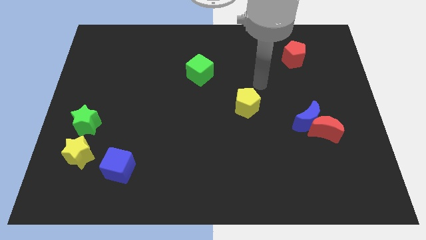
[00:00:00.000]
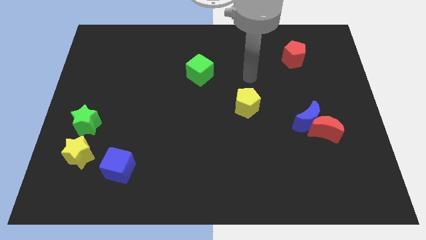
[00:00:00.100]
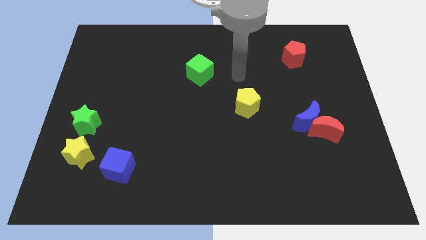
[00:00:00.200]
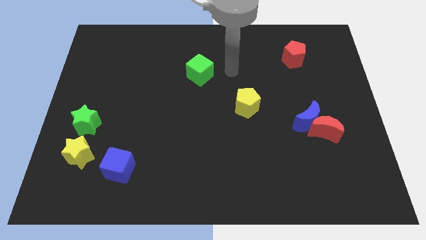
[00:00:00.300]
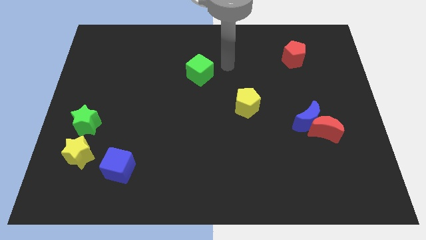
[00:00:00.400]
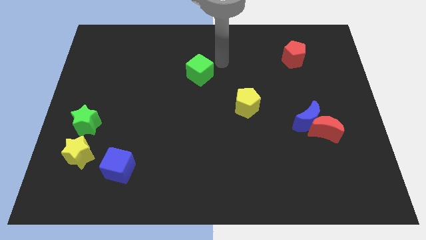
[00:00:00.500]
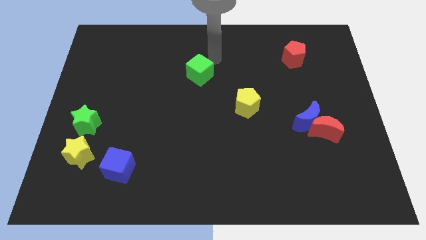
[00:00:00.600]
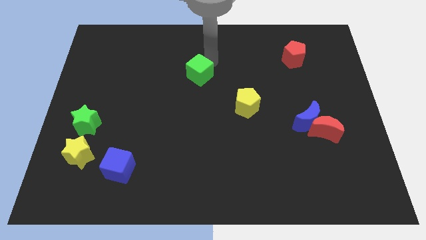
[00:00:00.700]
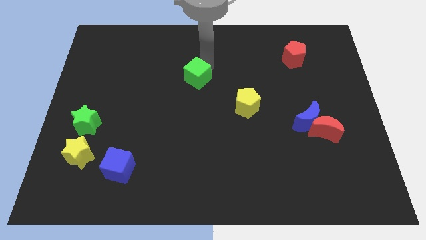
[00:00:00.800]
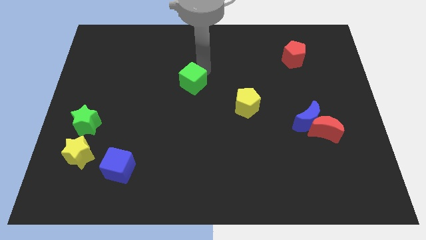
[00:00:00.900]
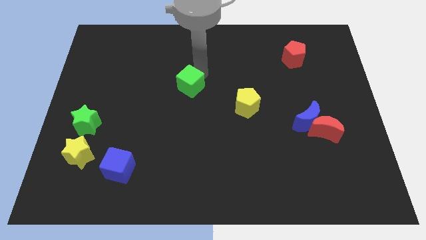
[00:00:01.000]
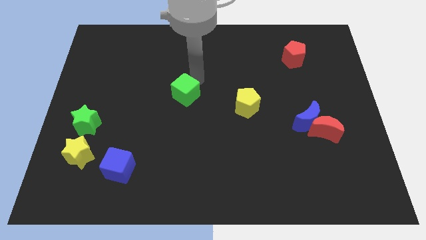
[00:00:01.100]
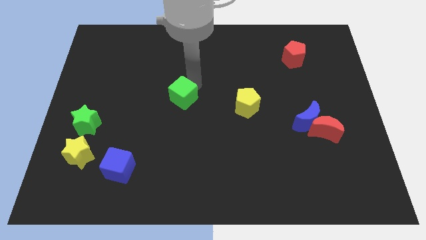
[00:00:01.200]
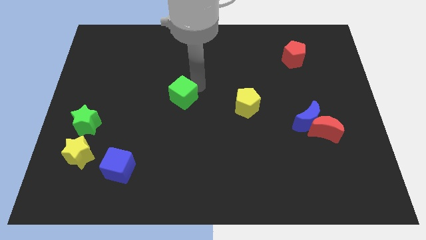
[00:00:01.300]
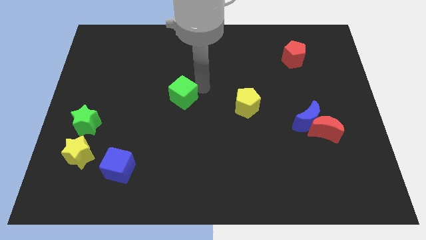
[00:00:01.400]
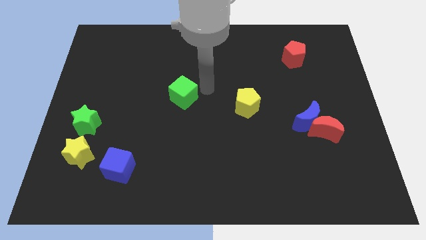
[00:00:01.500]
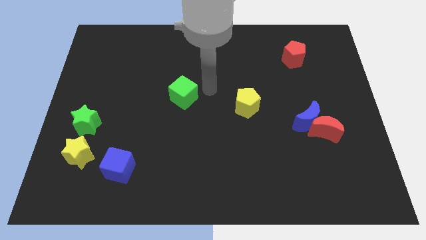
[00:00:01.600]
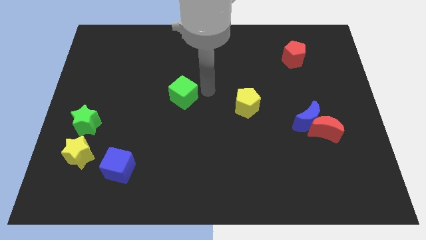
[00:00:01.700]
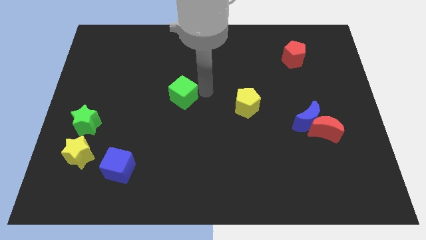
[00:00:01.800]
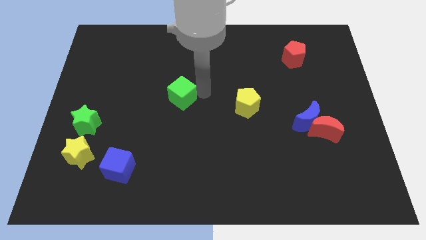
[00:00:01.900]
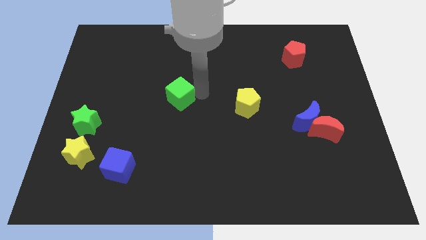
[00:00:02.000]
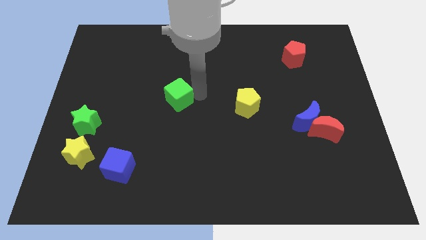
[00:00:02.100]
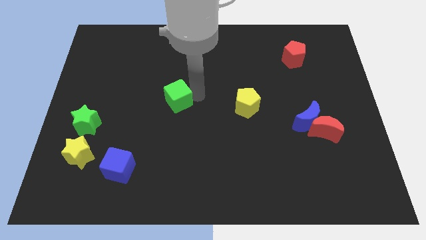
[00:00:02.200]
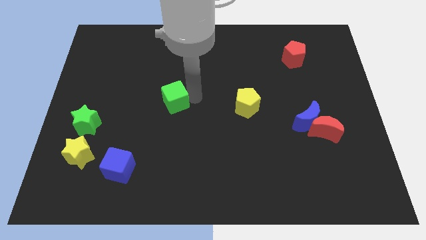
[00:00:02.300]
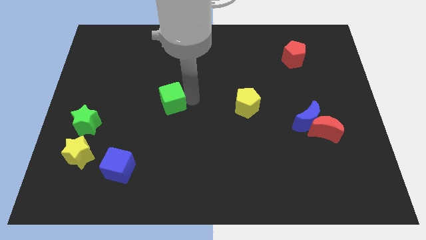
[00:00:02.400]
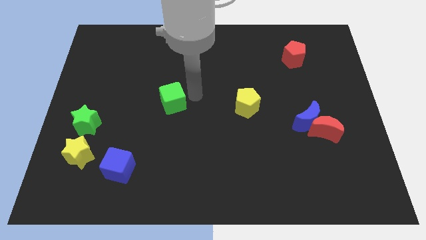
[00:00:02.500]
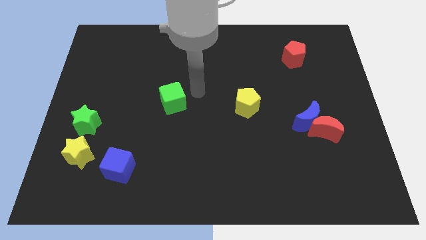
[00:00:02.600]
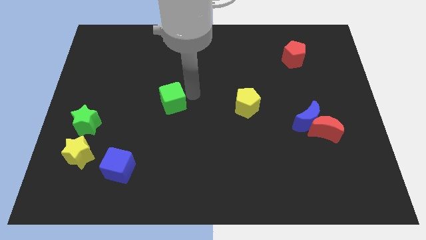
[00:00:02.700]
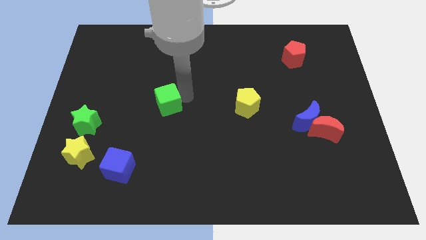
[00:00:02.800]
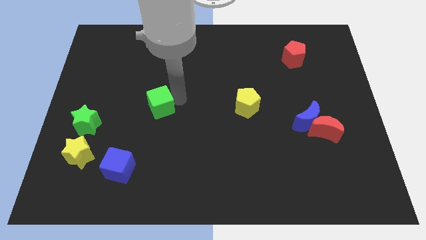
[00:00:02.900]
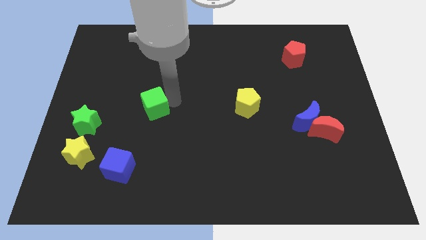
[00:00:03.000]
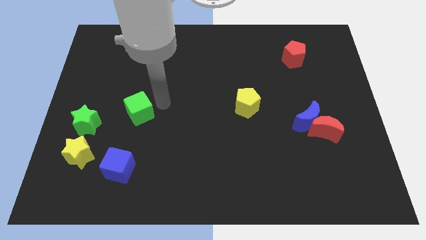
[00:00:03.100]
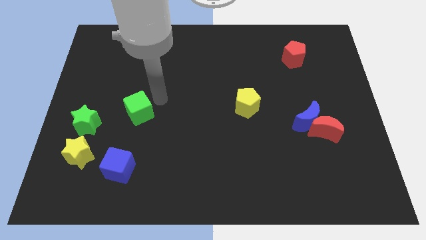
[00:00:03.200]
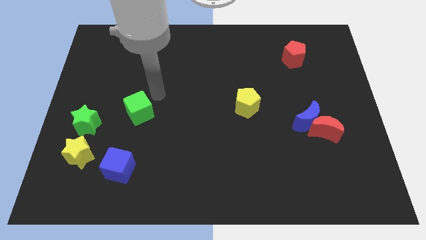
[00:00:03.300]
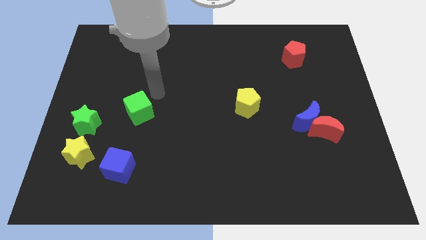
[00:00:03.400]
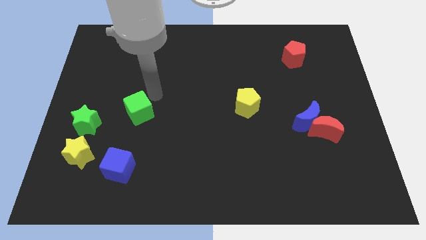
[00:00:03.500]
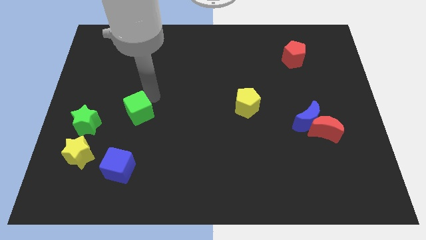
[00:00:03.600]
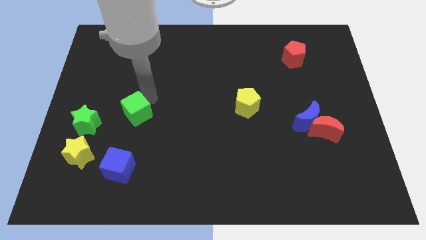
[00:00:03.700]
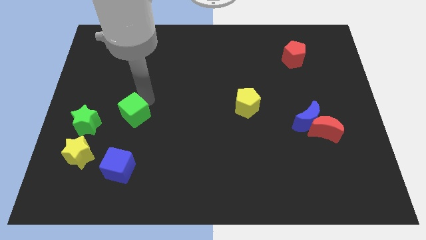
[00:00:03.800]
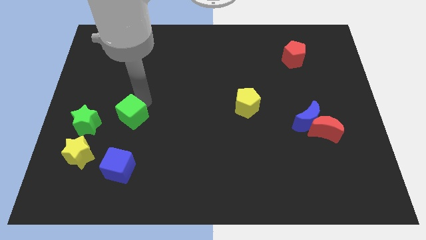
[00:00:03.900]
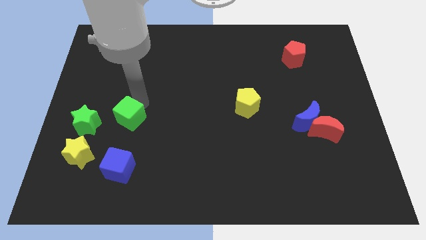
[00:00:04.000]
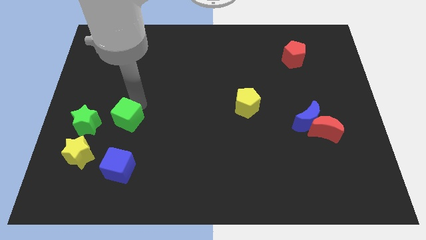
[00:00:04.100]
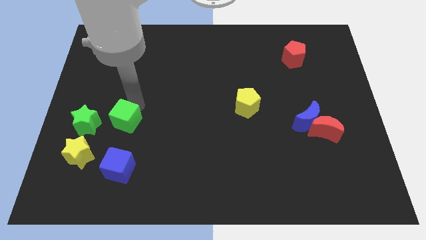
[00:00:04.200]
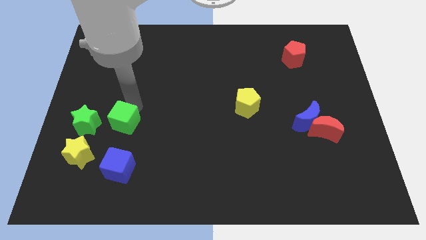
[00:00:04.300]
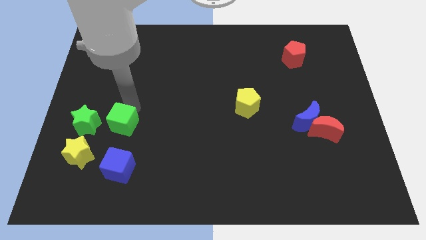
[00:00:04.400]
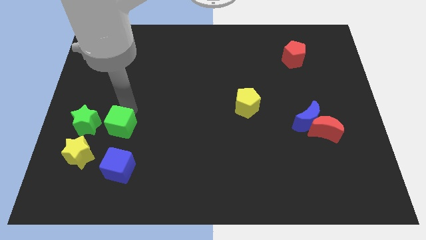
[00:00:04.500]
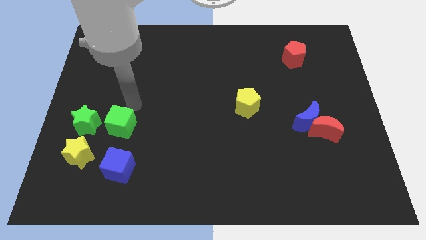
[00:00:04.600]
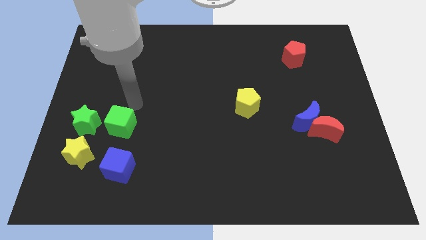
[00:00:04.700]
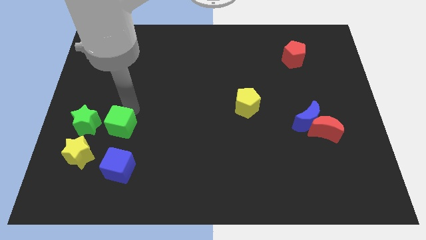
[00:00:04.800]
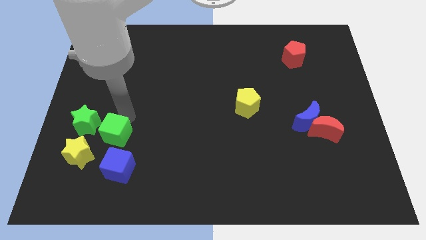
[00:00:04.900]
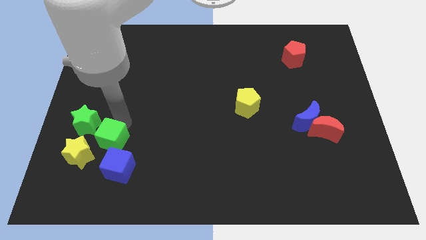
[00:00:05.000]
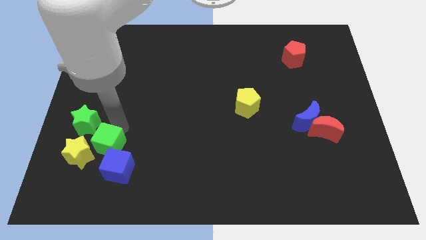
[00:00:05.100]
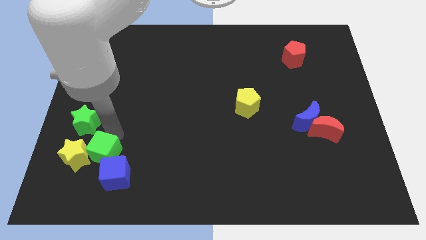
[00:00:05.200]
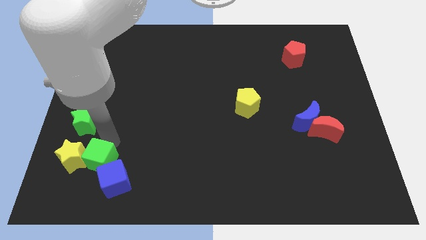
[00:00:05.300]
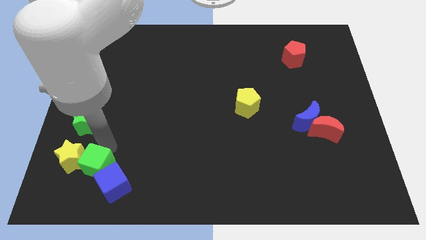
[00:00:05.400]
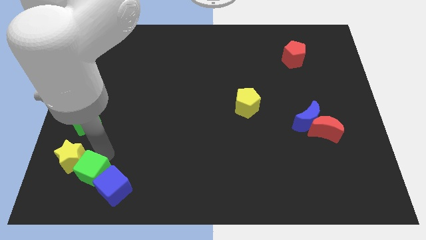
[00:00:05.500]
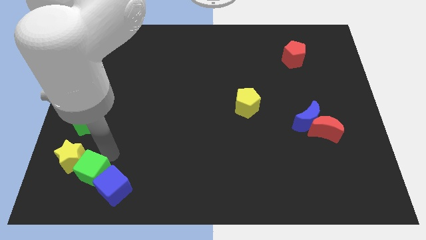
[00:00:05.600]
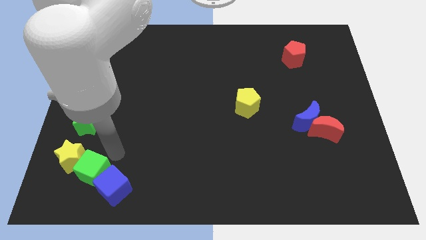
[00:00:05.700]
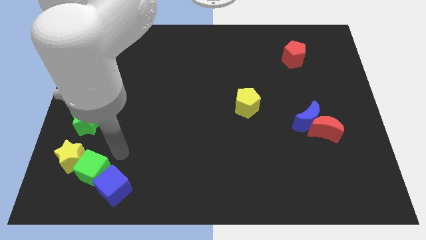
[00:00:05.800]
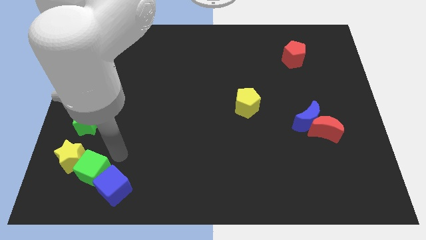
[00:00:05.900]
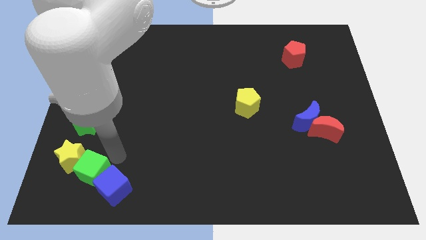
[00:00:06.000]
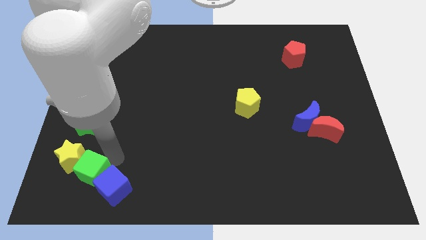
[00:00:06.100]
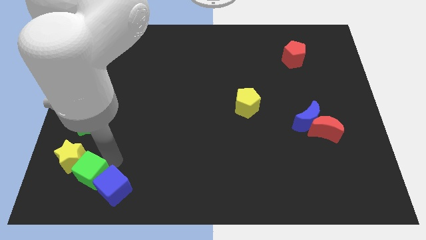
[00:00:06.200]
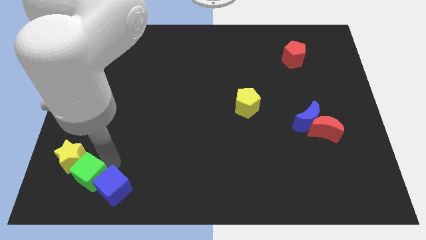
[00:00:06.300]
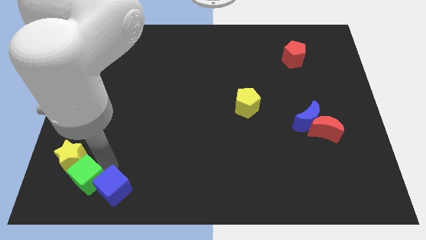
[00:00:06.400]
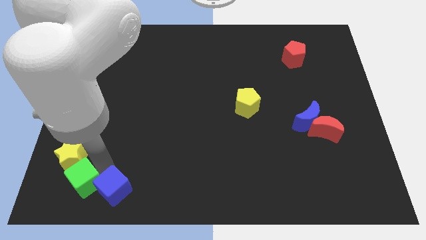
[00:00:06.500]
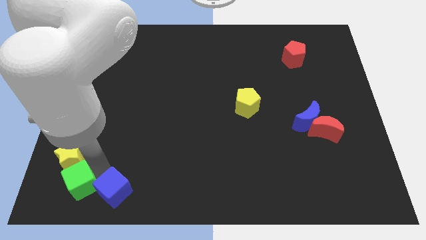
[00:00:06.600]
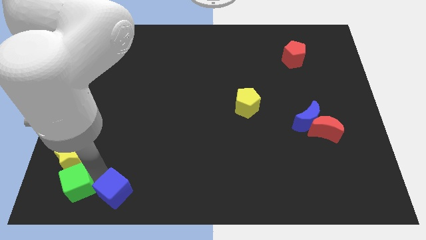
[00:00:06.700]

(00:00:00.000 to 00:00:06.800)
slide the green cube to the bottom left of the board
